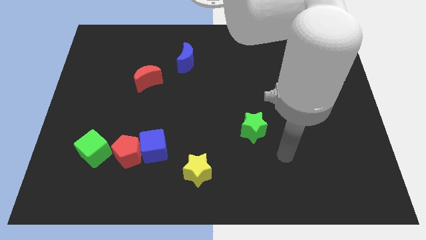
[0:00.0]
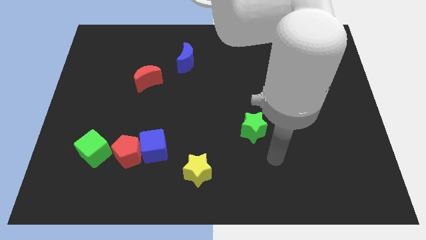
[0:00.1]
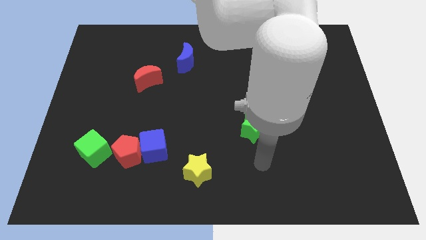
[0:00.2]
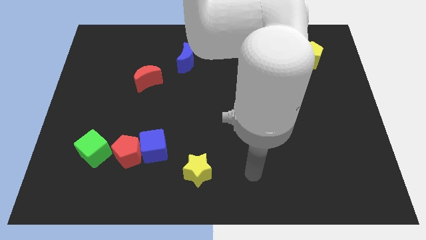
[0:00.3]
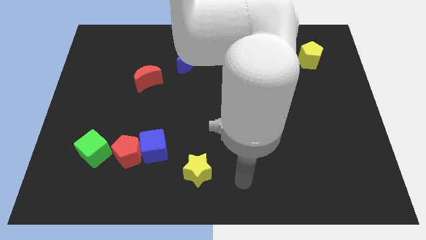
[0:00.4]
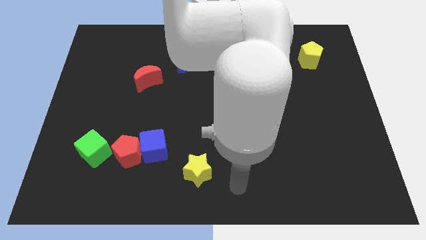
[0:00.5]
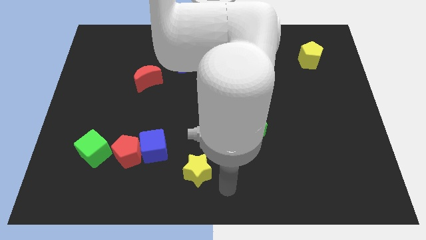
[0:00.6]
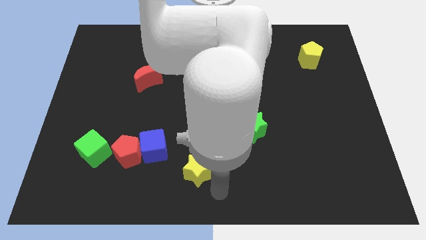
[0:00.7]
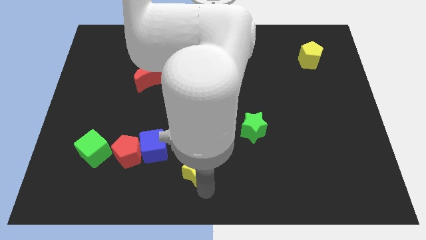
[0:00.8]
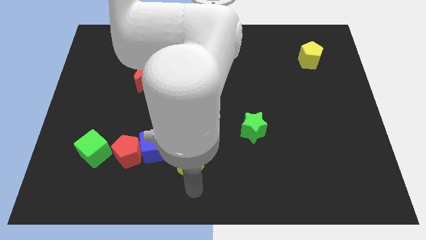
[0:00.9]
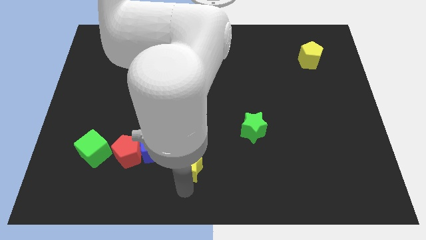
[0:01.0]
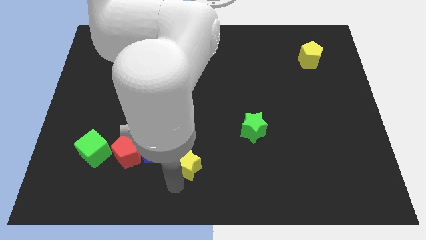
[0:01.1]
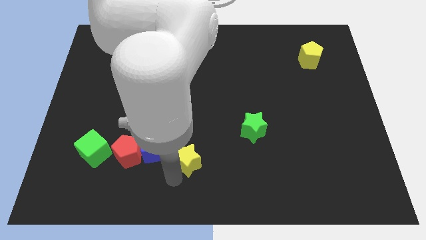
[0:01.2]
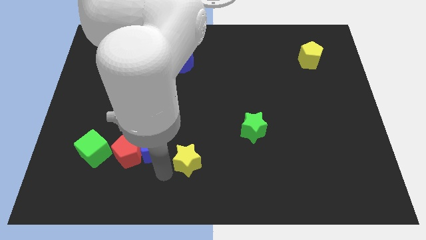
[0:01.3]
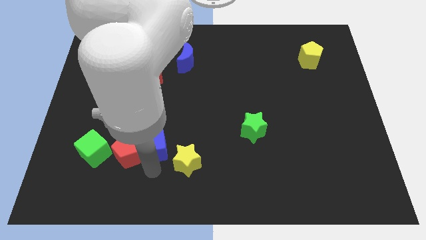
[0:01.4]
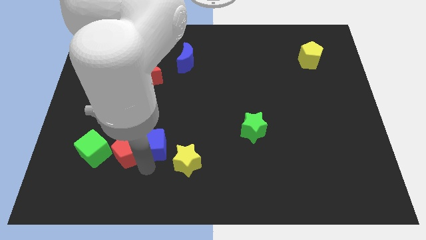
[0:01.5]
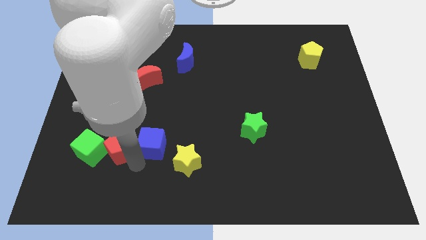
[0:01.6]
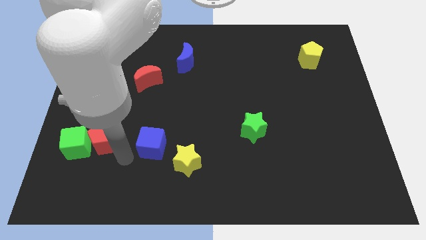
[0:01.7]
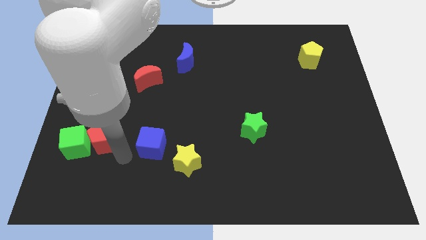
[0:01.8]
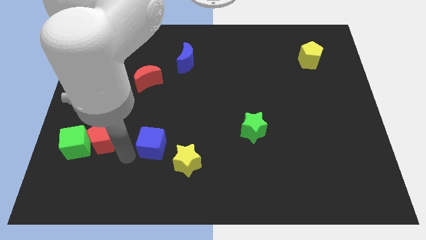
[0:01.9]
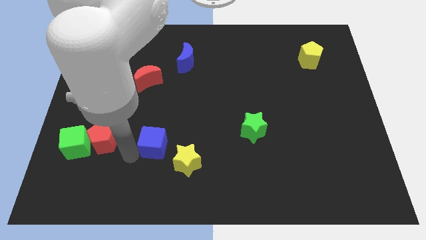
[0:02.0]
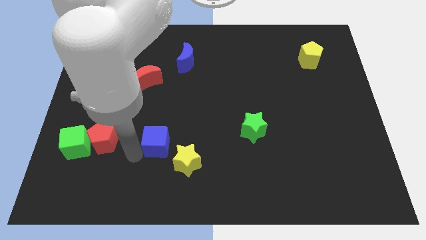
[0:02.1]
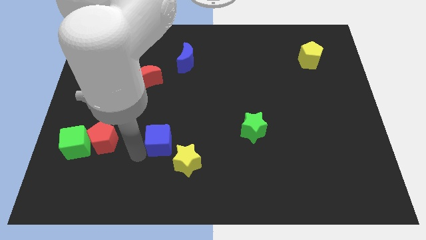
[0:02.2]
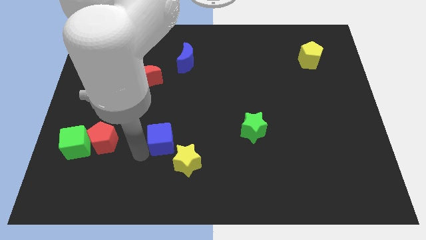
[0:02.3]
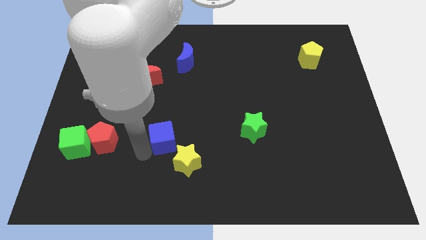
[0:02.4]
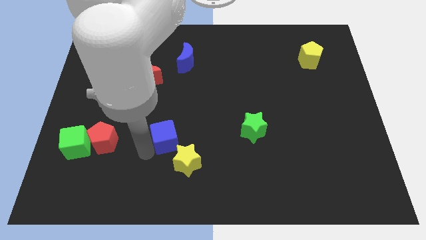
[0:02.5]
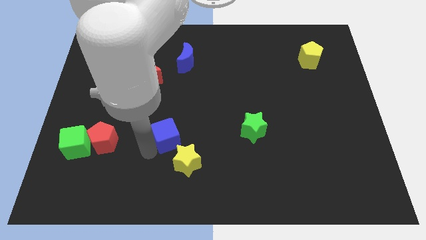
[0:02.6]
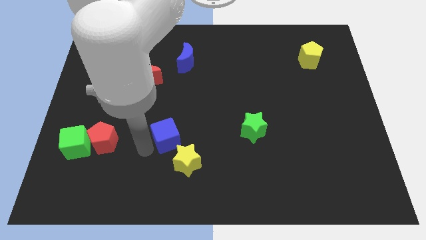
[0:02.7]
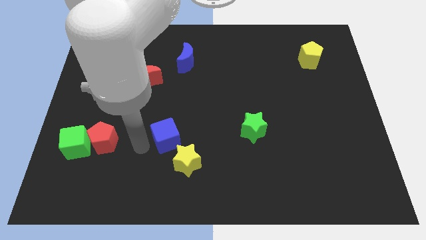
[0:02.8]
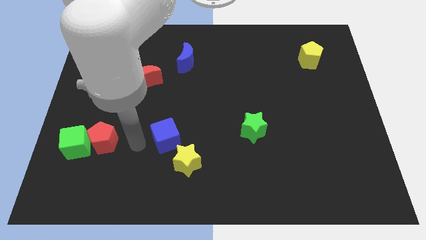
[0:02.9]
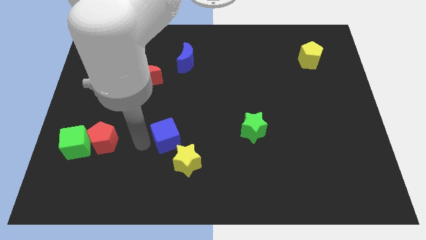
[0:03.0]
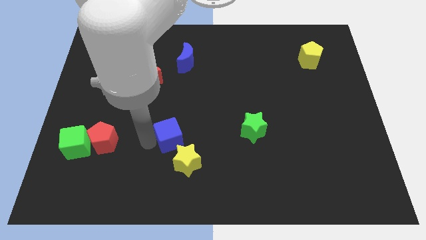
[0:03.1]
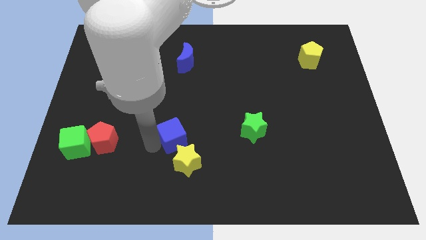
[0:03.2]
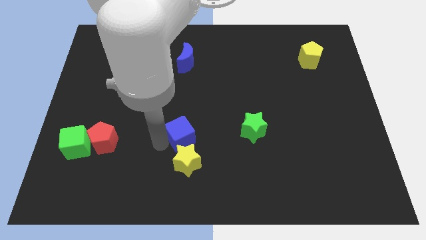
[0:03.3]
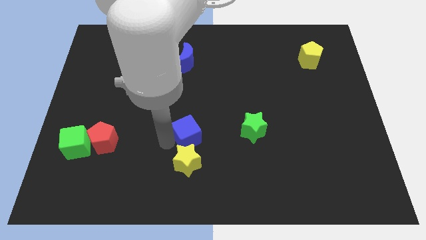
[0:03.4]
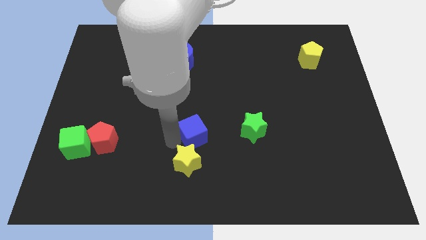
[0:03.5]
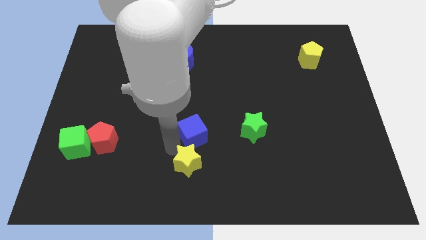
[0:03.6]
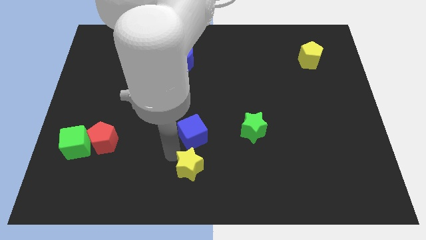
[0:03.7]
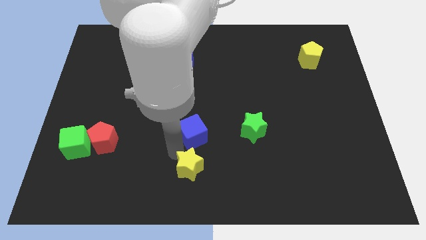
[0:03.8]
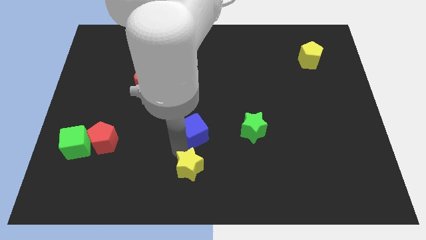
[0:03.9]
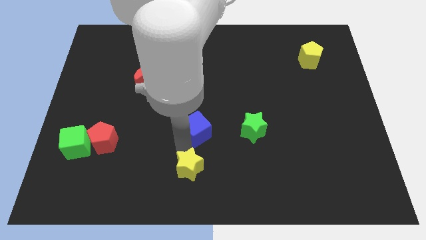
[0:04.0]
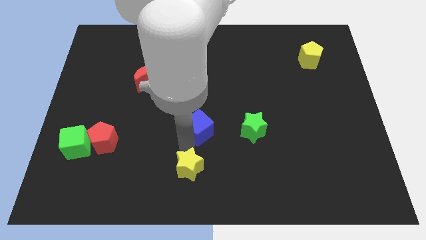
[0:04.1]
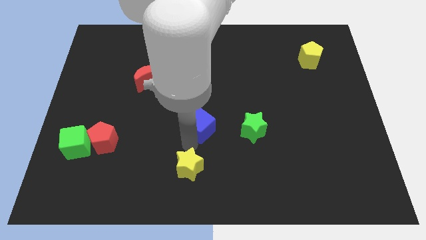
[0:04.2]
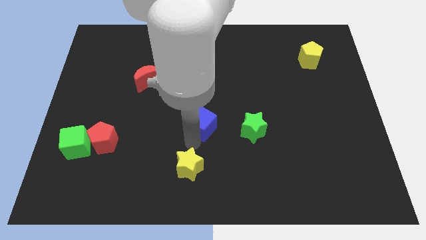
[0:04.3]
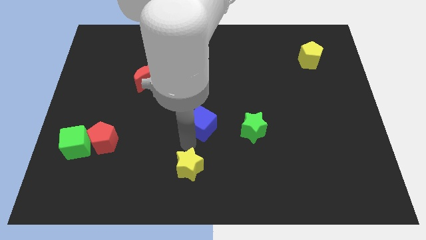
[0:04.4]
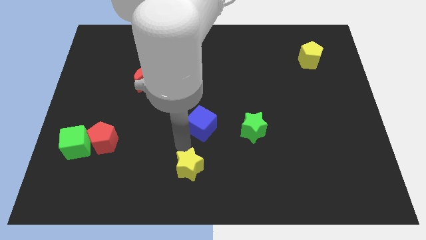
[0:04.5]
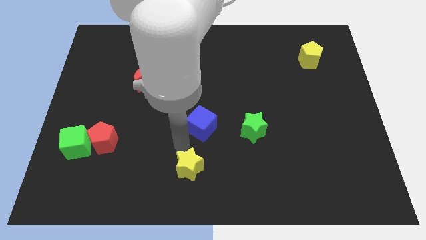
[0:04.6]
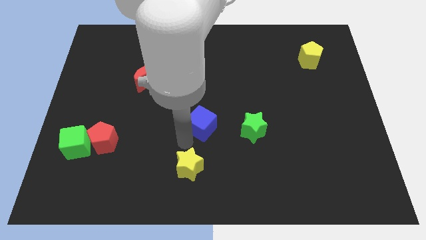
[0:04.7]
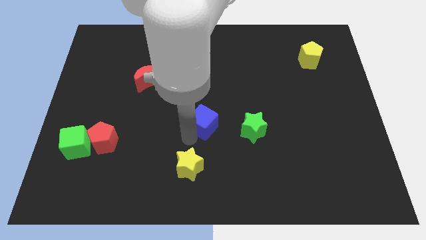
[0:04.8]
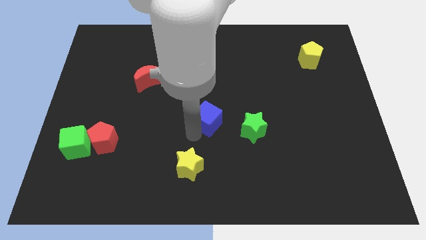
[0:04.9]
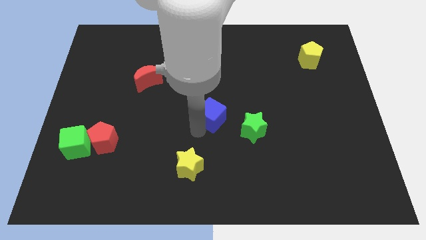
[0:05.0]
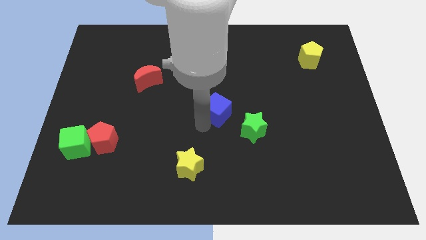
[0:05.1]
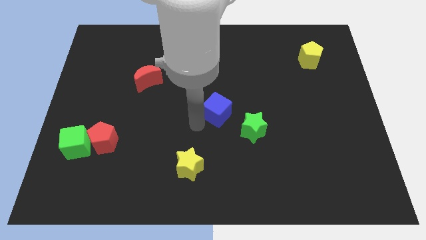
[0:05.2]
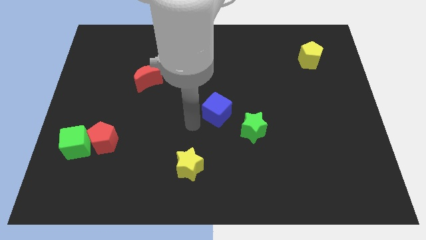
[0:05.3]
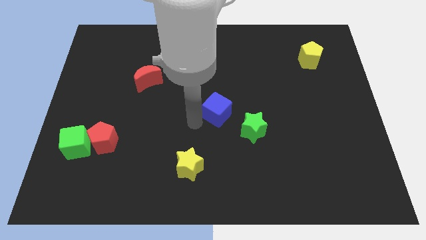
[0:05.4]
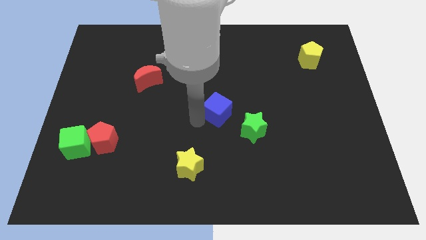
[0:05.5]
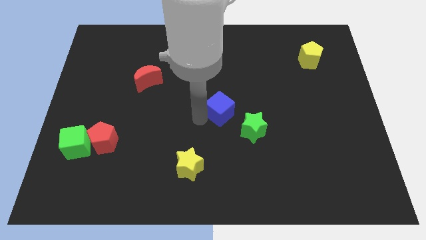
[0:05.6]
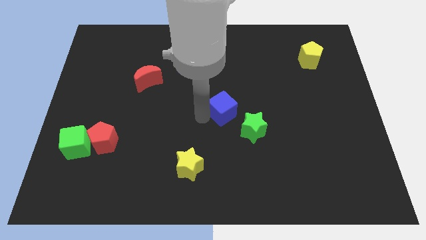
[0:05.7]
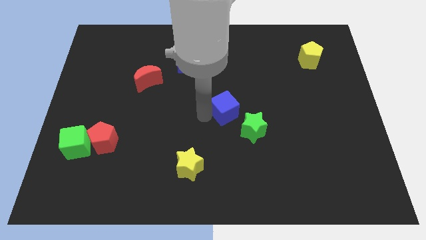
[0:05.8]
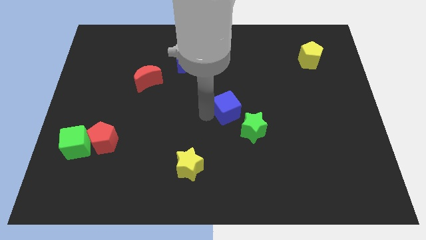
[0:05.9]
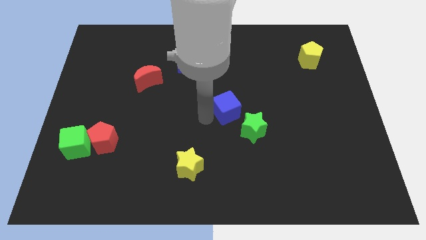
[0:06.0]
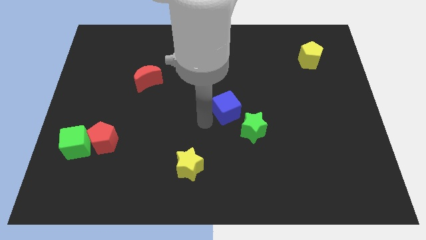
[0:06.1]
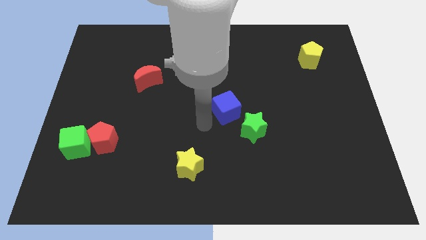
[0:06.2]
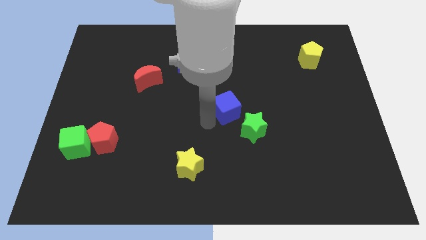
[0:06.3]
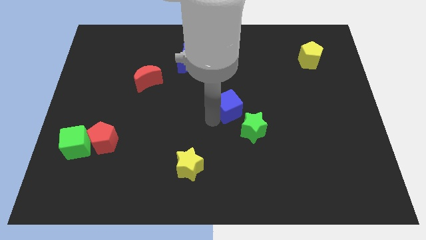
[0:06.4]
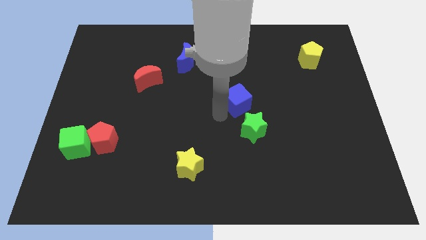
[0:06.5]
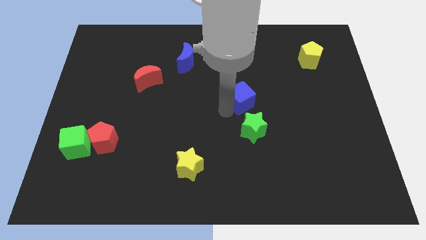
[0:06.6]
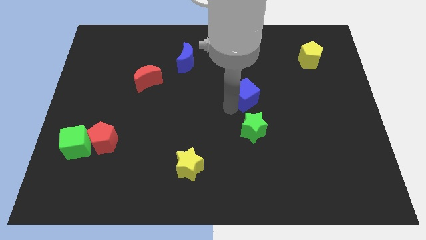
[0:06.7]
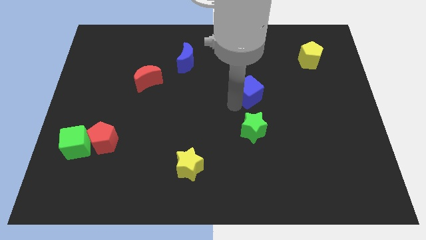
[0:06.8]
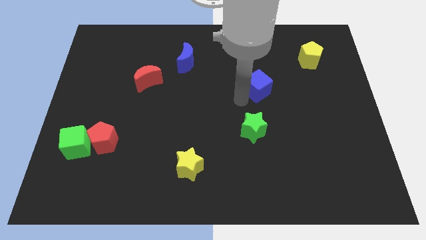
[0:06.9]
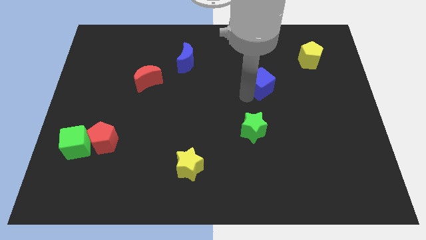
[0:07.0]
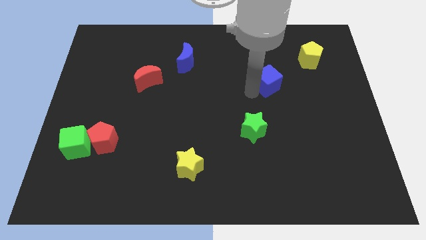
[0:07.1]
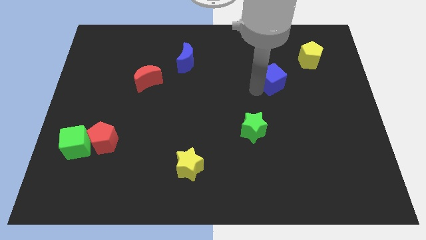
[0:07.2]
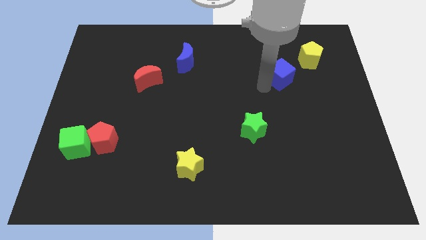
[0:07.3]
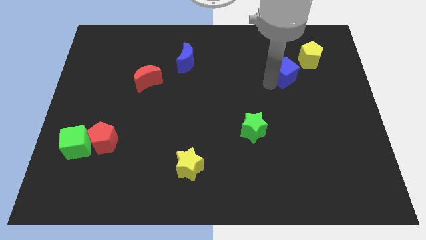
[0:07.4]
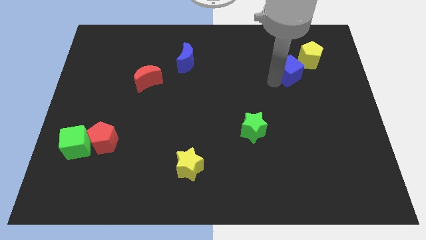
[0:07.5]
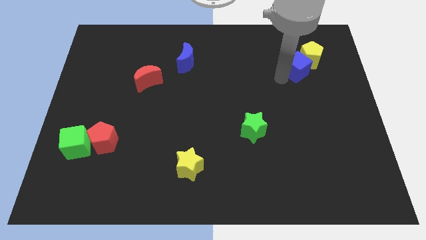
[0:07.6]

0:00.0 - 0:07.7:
slide the blue cube towards the yellow pentagon
